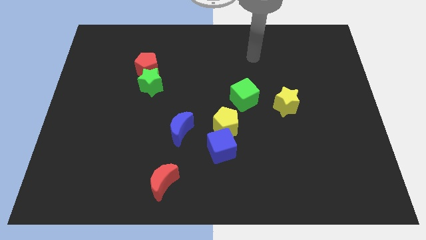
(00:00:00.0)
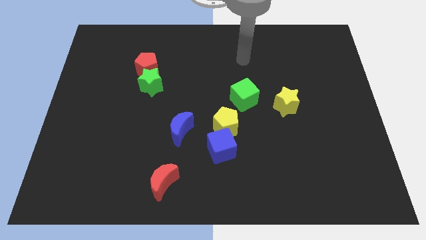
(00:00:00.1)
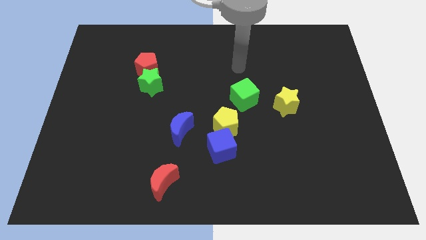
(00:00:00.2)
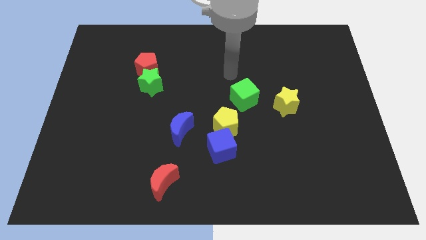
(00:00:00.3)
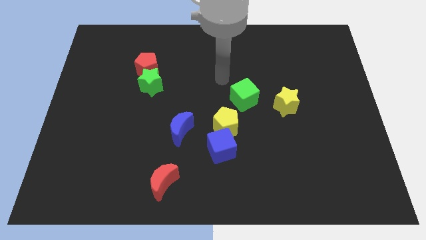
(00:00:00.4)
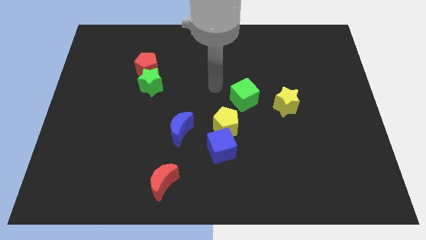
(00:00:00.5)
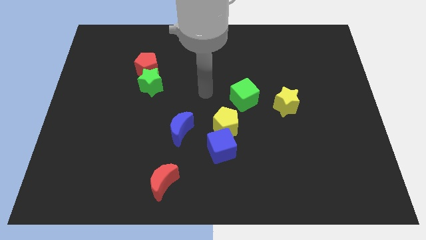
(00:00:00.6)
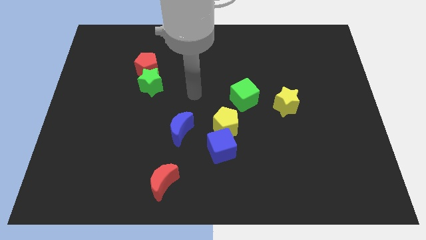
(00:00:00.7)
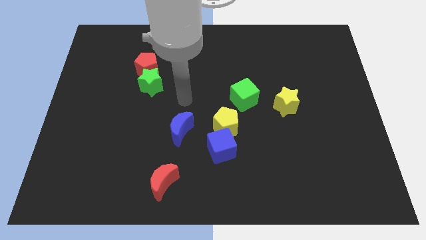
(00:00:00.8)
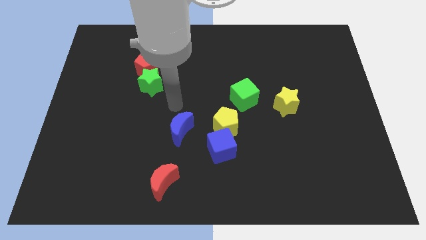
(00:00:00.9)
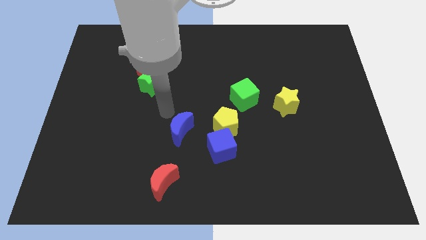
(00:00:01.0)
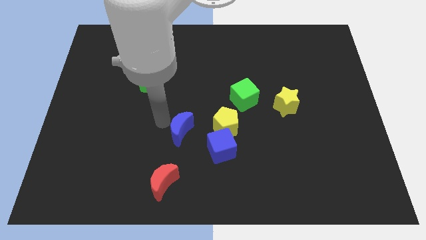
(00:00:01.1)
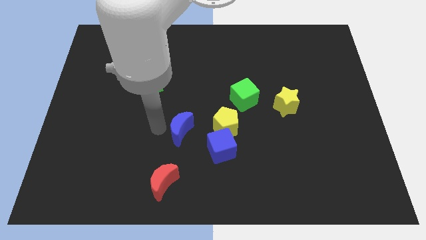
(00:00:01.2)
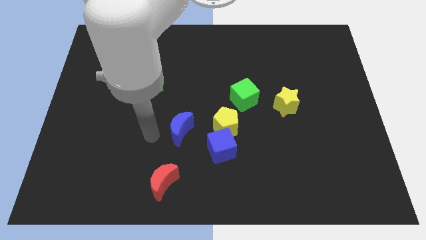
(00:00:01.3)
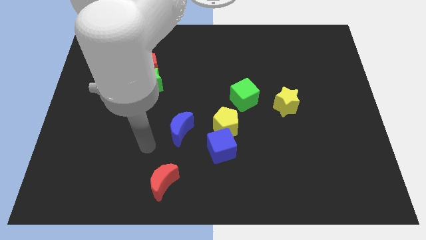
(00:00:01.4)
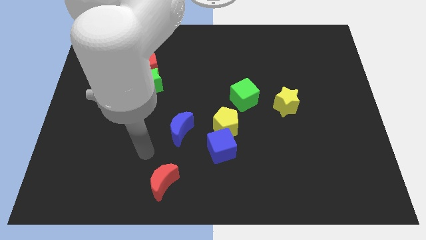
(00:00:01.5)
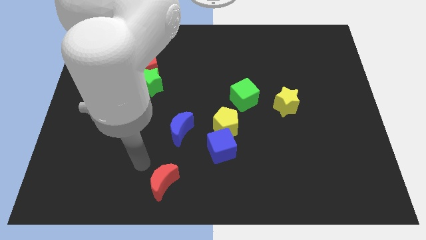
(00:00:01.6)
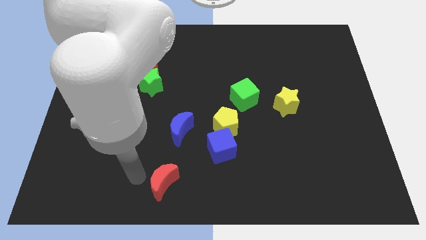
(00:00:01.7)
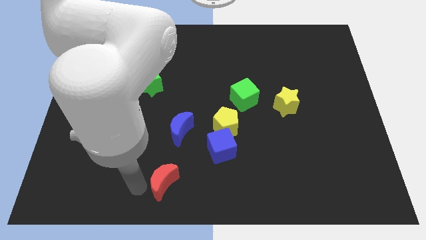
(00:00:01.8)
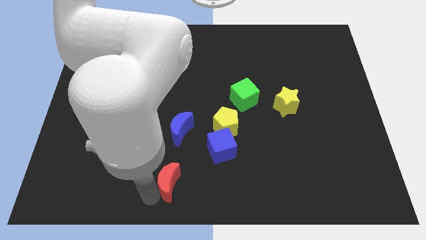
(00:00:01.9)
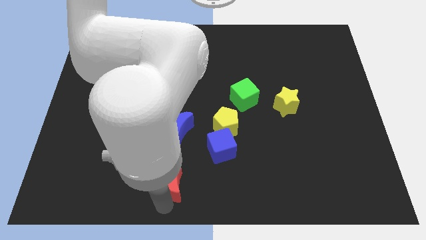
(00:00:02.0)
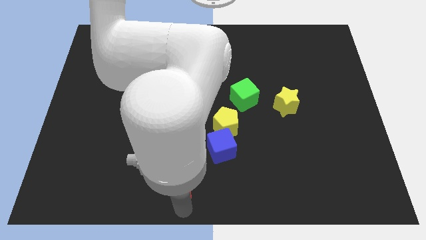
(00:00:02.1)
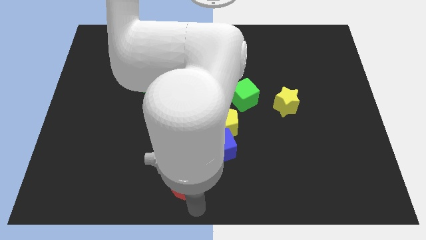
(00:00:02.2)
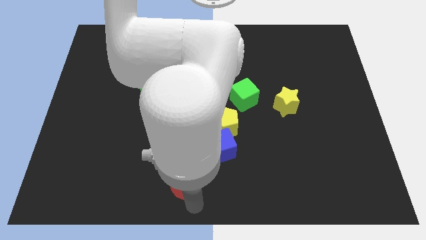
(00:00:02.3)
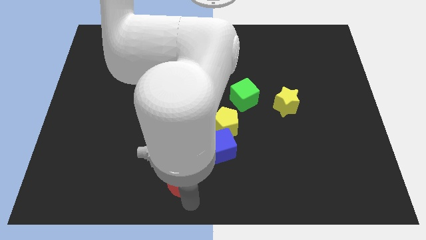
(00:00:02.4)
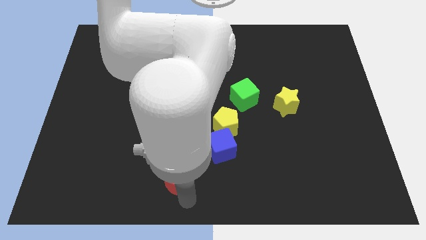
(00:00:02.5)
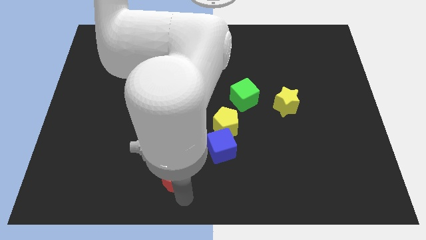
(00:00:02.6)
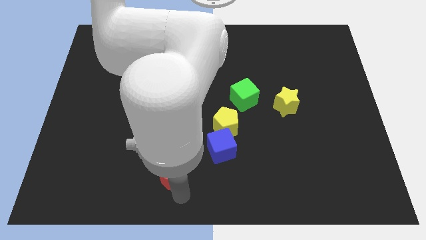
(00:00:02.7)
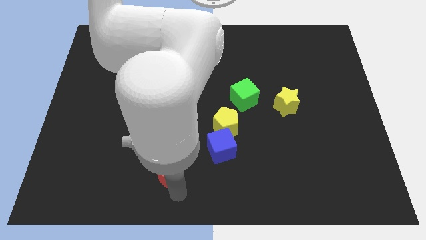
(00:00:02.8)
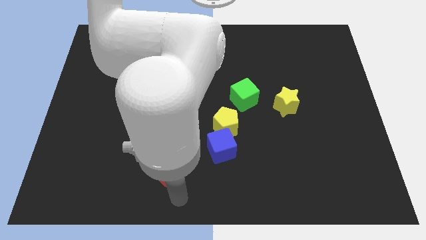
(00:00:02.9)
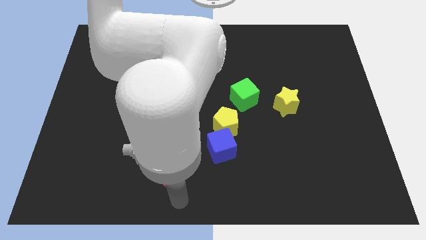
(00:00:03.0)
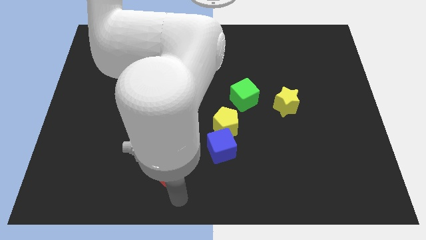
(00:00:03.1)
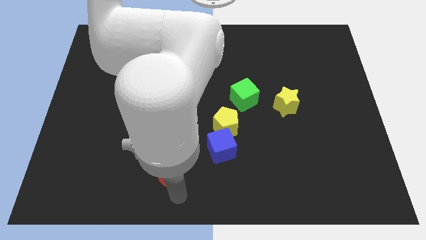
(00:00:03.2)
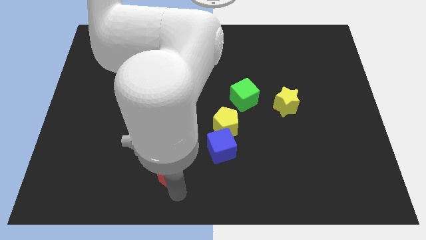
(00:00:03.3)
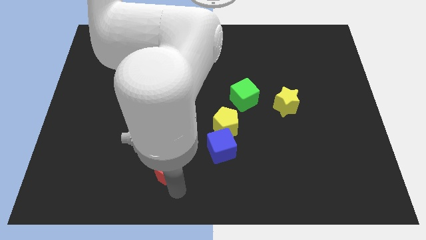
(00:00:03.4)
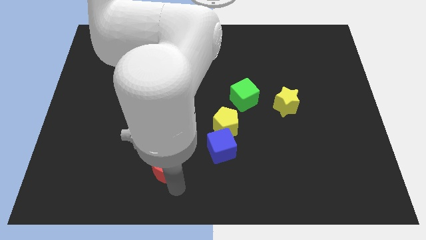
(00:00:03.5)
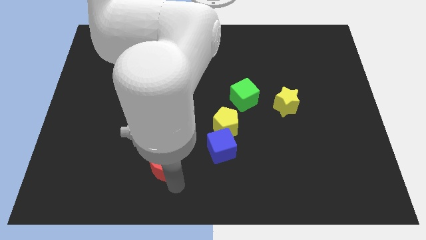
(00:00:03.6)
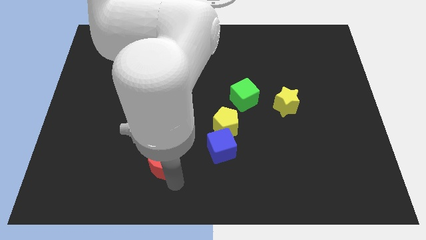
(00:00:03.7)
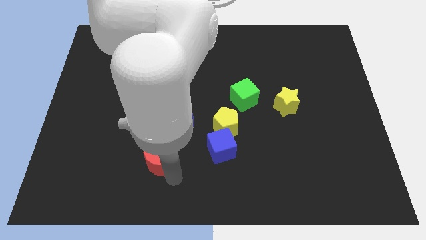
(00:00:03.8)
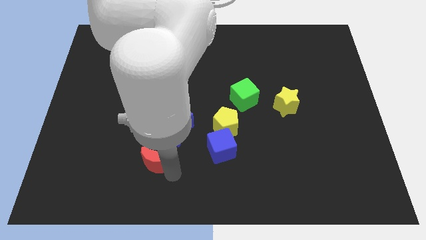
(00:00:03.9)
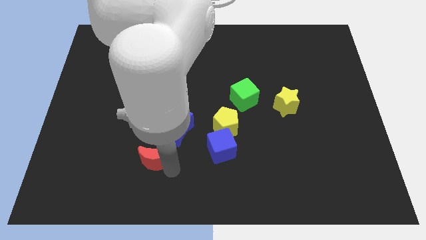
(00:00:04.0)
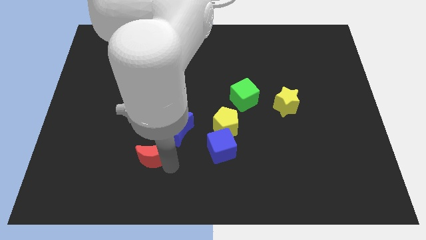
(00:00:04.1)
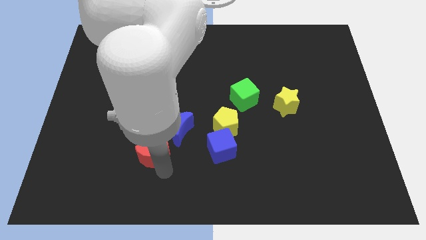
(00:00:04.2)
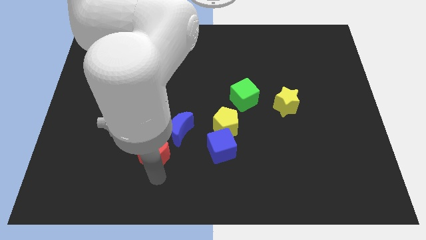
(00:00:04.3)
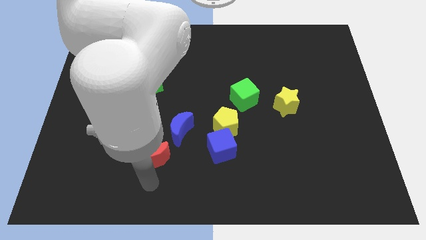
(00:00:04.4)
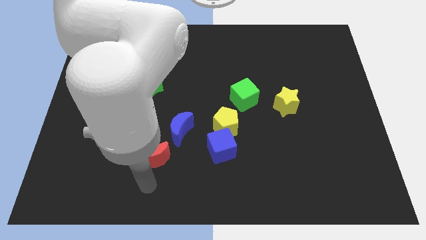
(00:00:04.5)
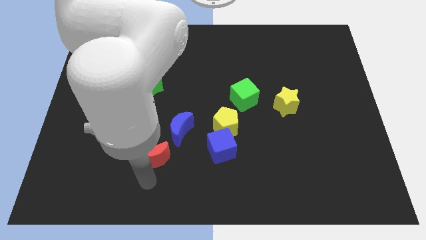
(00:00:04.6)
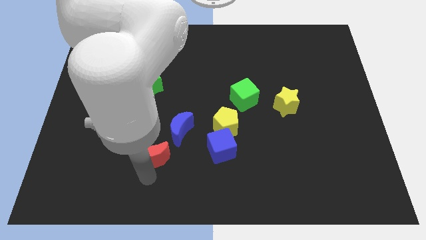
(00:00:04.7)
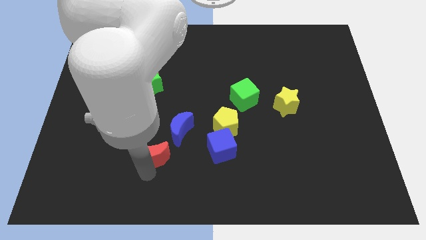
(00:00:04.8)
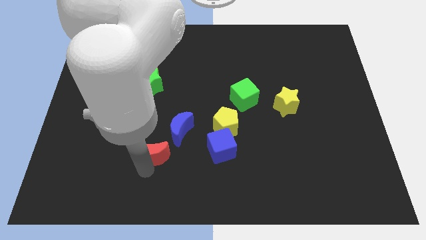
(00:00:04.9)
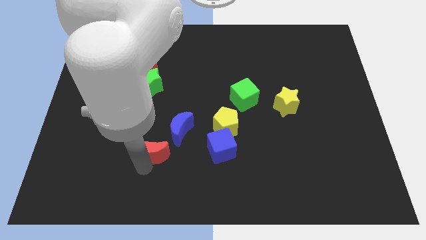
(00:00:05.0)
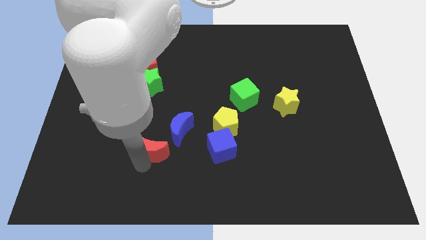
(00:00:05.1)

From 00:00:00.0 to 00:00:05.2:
slide the red moon up a little

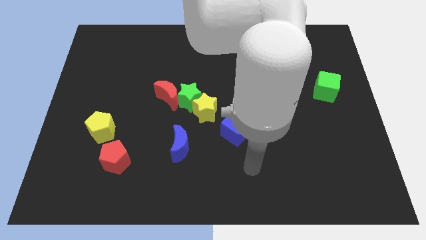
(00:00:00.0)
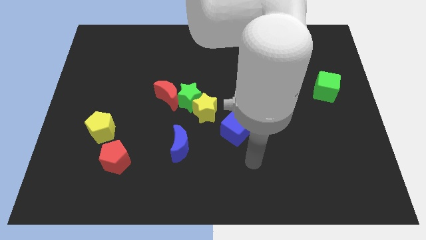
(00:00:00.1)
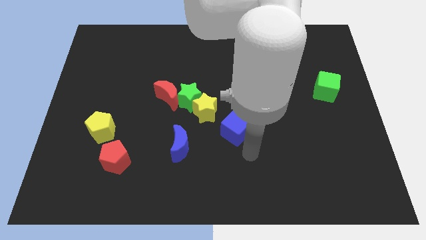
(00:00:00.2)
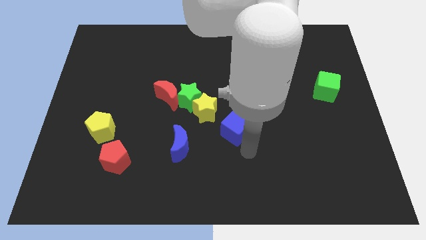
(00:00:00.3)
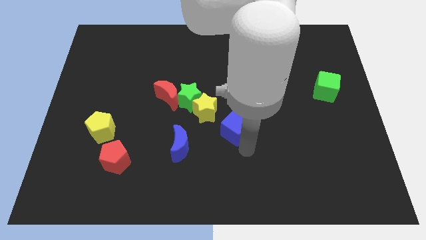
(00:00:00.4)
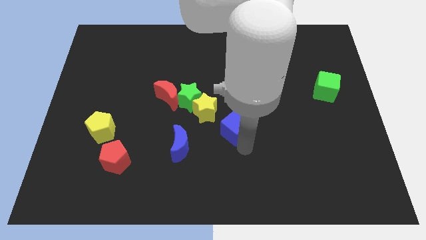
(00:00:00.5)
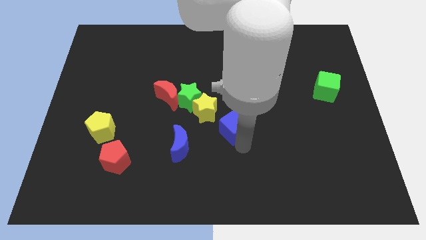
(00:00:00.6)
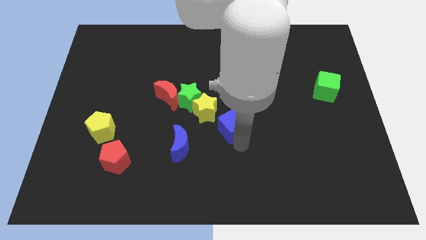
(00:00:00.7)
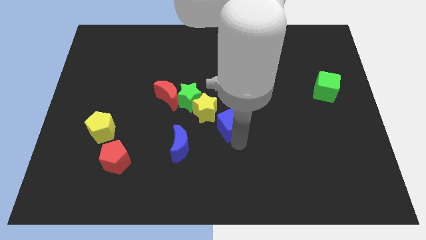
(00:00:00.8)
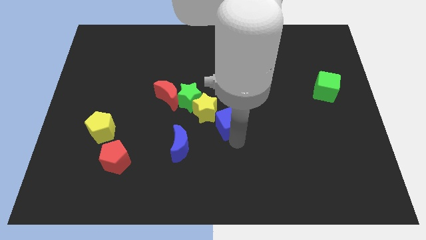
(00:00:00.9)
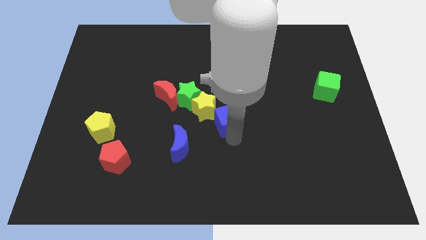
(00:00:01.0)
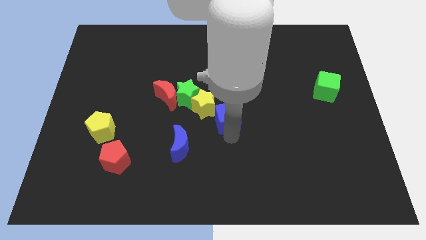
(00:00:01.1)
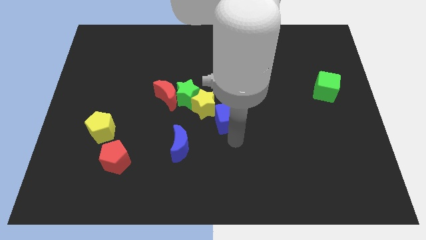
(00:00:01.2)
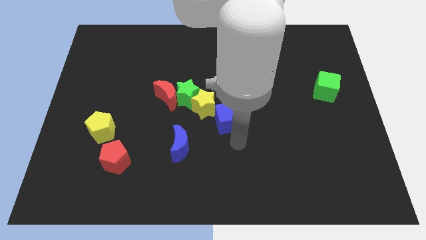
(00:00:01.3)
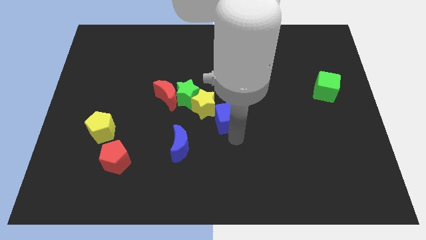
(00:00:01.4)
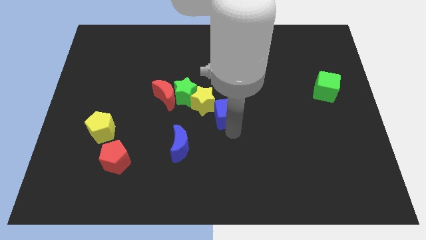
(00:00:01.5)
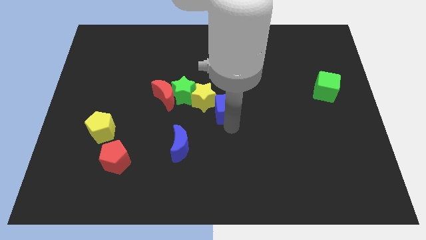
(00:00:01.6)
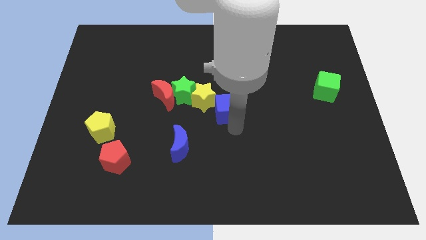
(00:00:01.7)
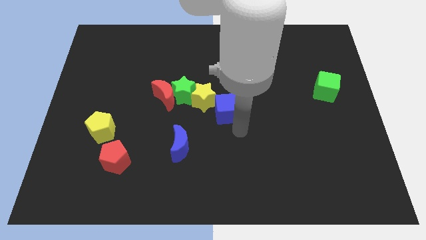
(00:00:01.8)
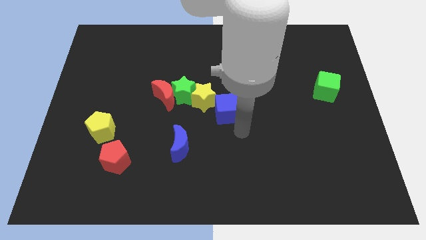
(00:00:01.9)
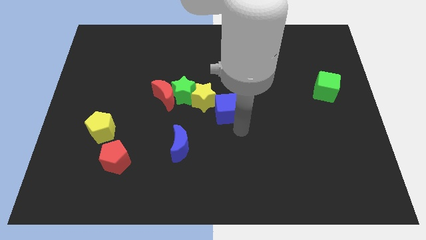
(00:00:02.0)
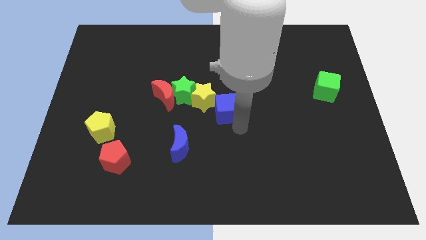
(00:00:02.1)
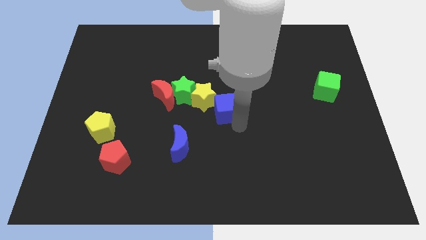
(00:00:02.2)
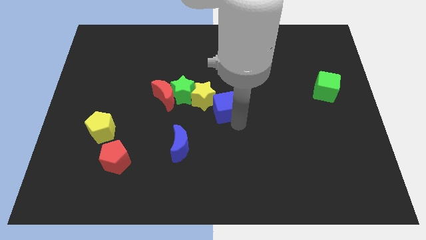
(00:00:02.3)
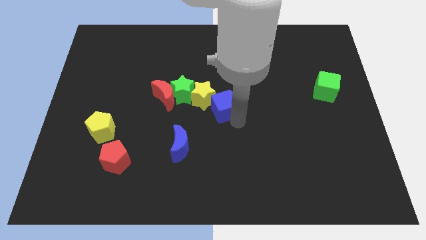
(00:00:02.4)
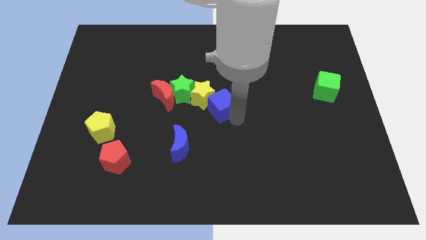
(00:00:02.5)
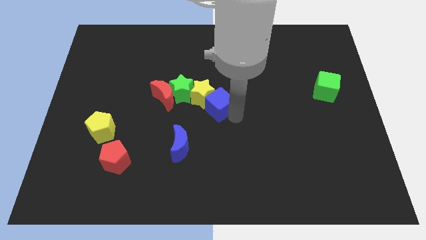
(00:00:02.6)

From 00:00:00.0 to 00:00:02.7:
slightly move the blue cube upwards and left diagonally
